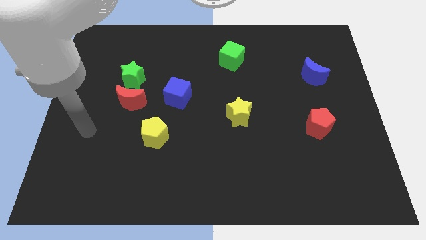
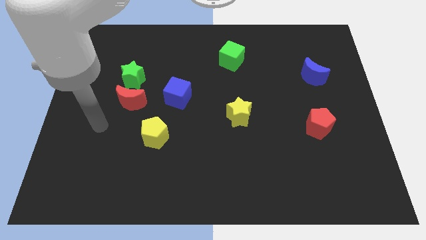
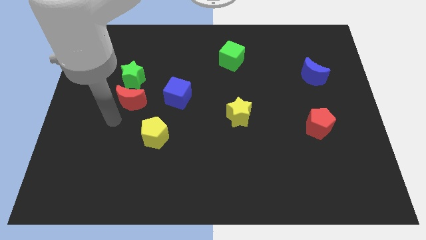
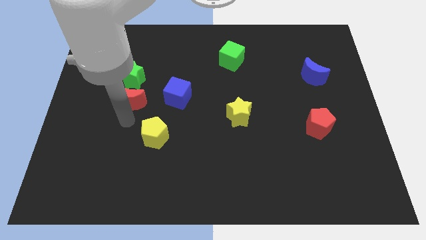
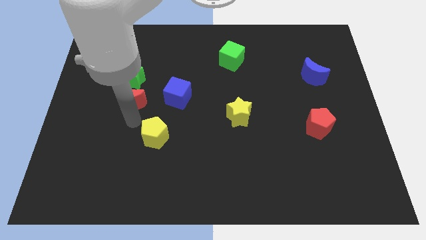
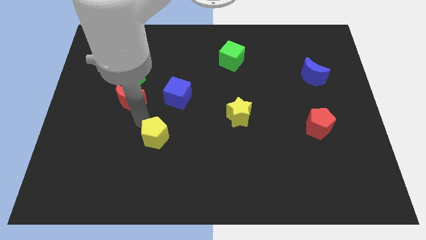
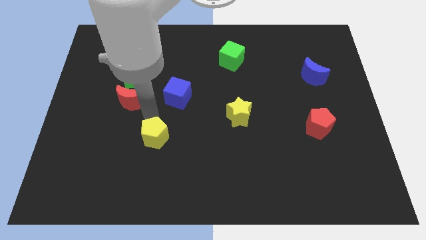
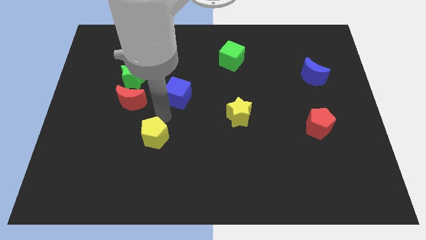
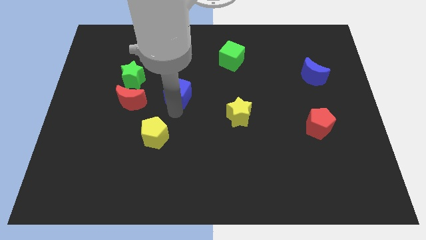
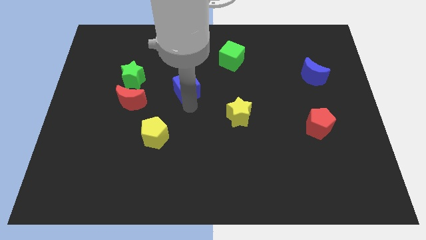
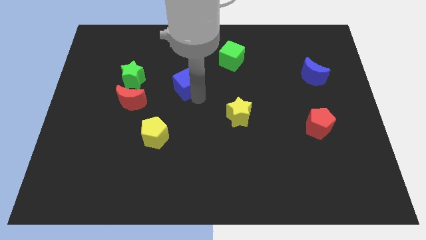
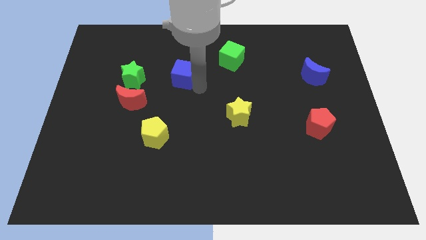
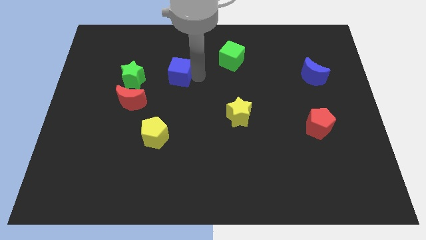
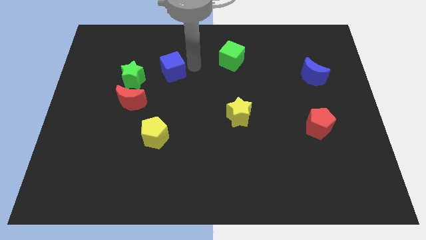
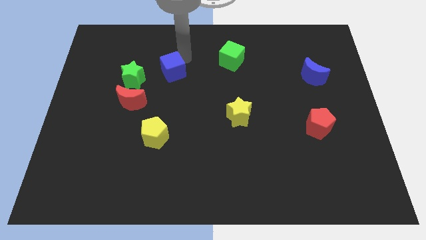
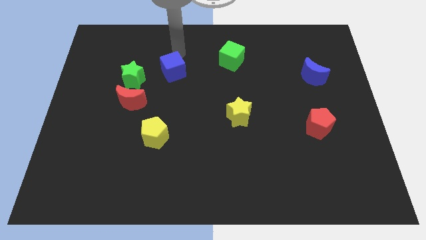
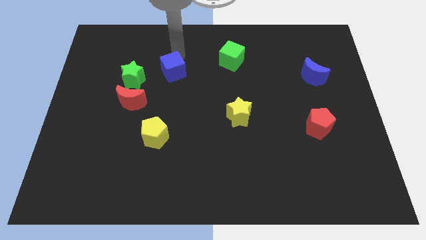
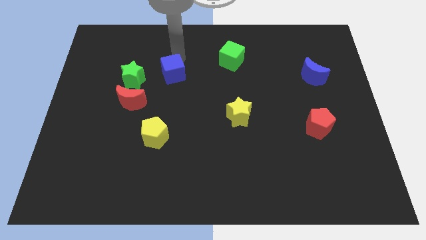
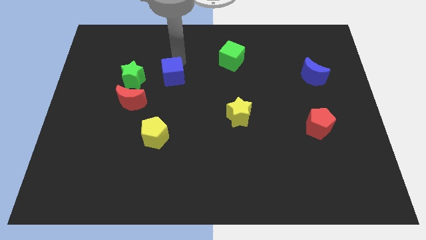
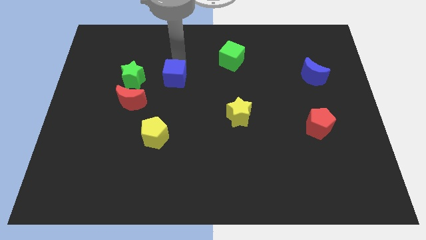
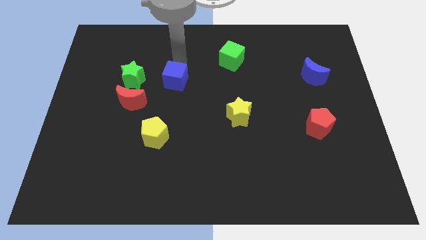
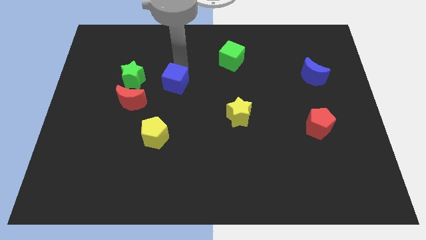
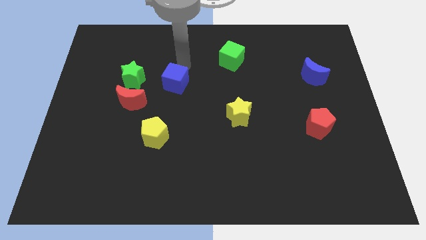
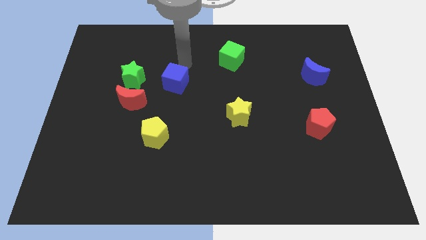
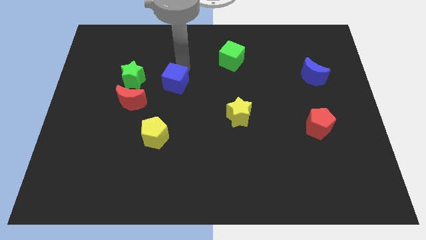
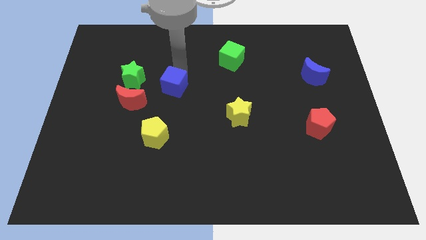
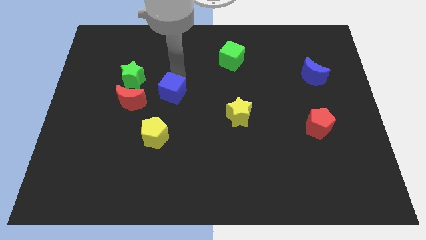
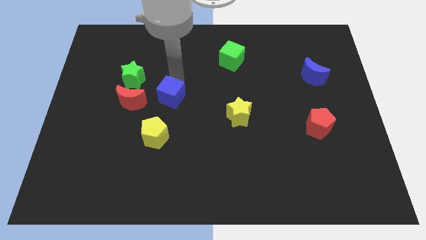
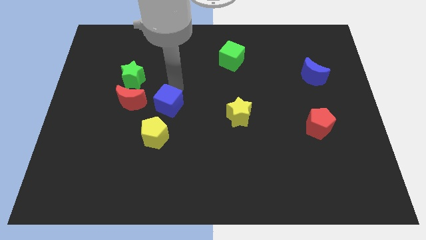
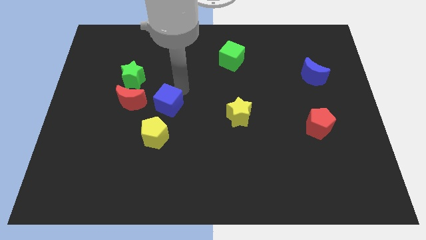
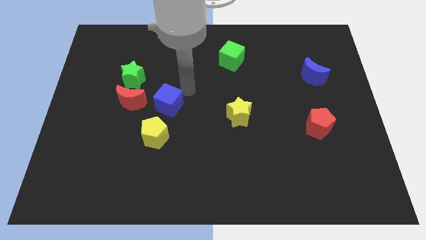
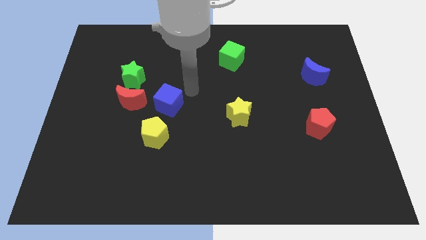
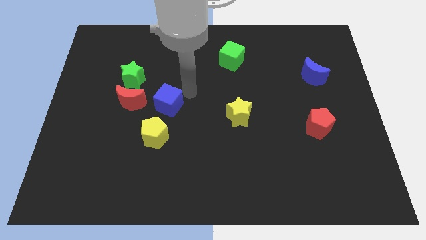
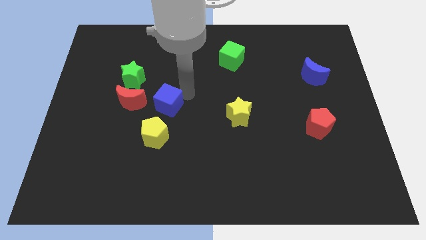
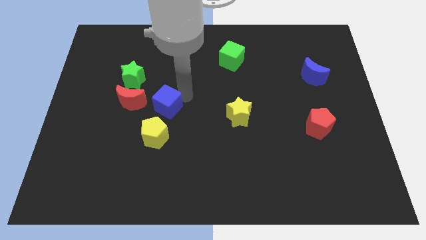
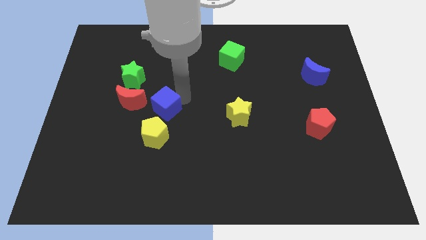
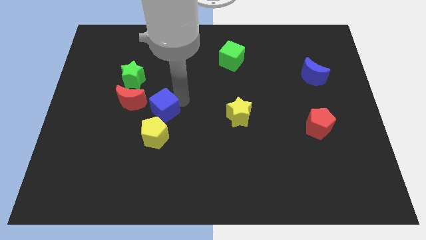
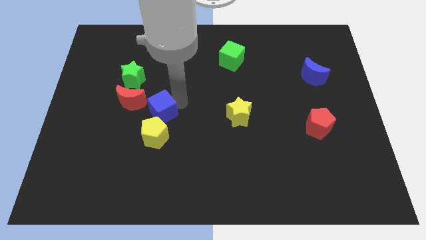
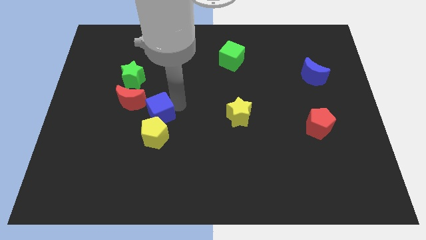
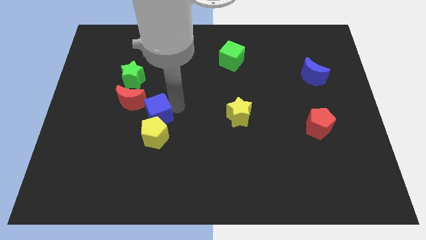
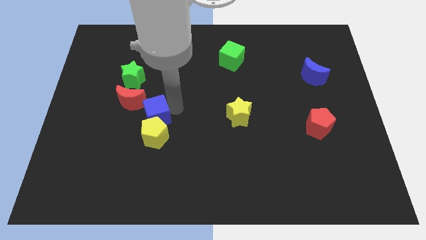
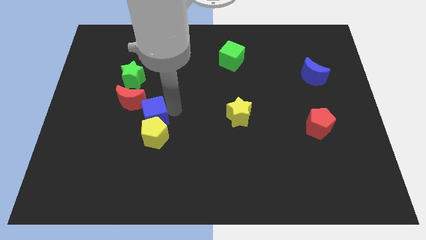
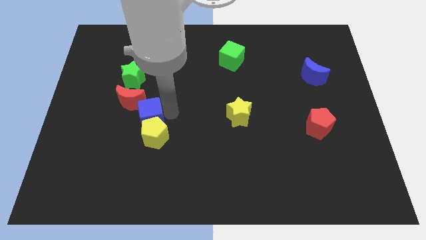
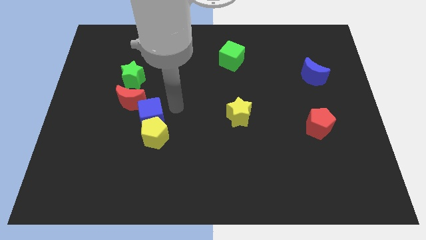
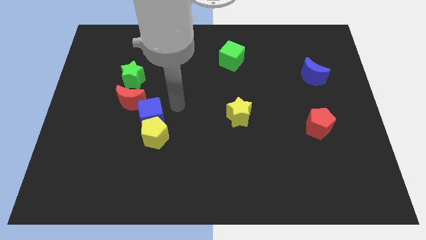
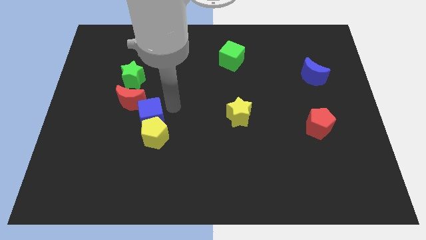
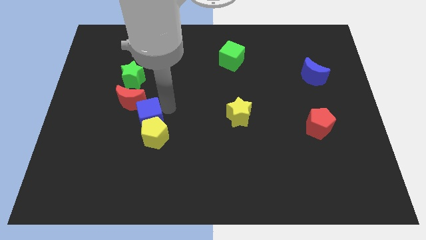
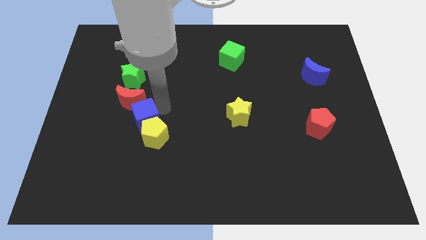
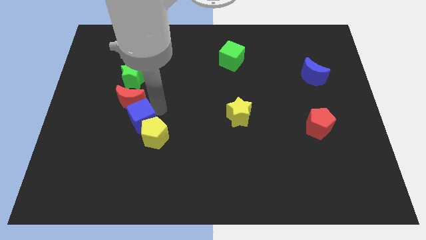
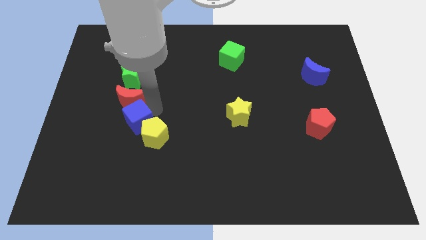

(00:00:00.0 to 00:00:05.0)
move the blue cube just left of the yellow pentagon
